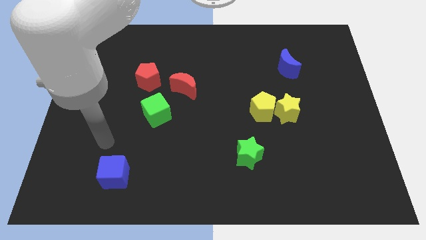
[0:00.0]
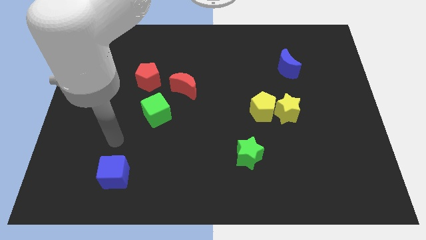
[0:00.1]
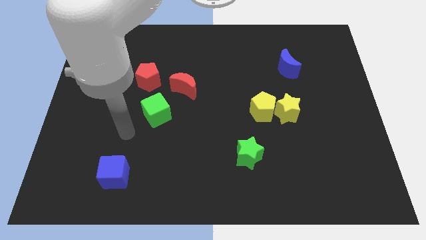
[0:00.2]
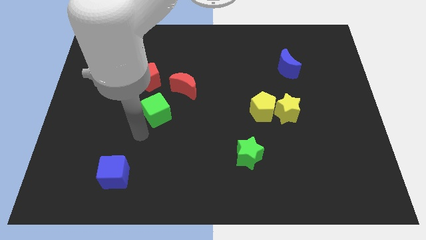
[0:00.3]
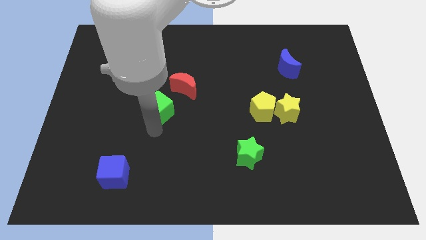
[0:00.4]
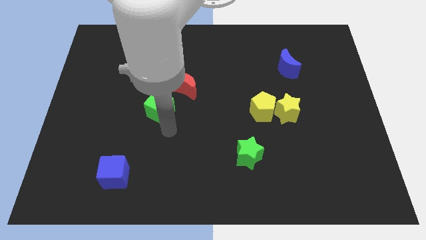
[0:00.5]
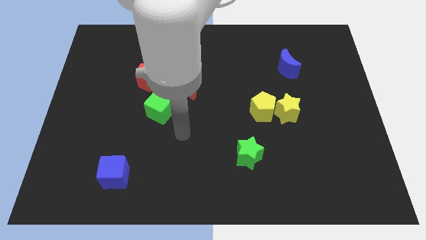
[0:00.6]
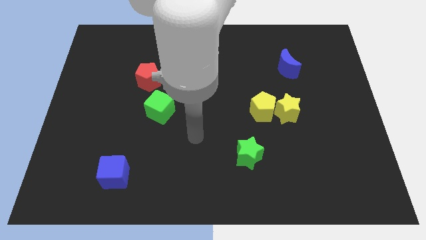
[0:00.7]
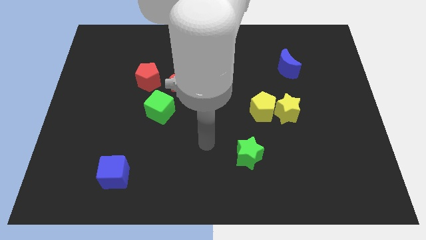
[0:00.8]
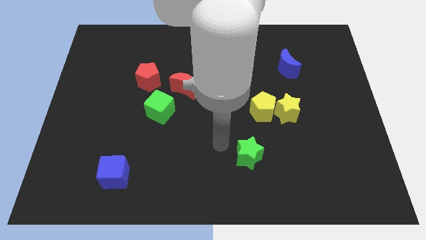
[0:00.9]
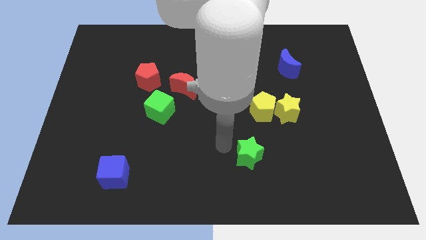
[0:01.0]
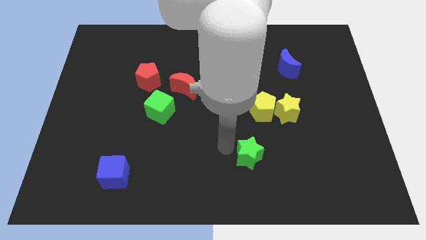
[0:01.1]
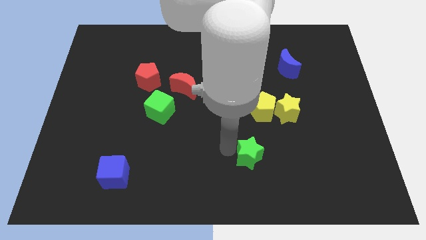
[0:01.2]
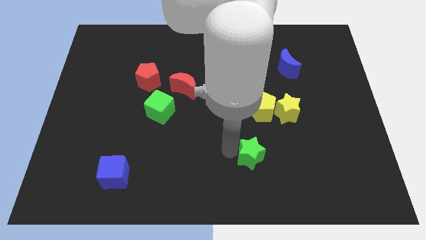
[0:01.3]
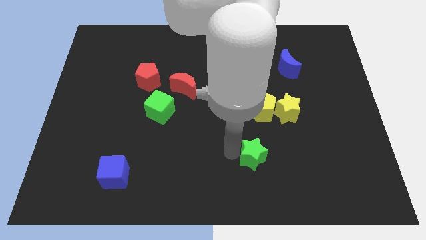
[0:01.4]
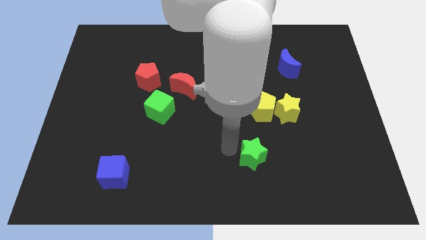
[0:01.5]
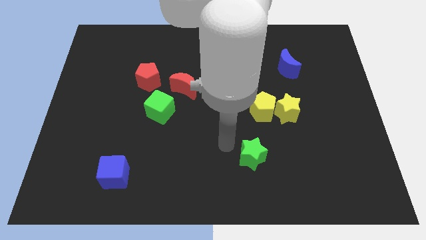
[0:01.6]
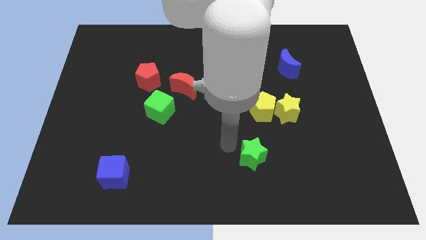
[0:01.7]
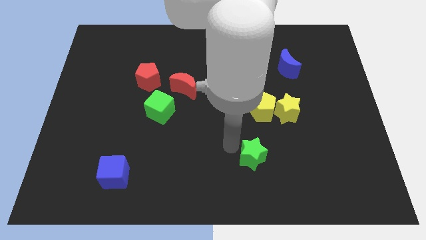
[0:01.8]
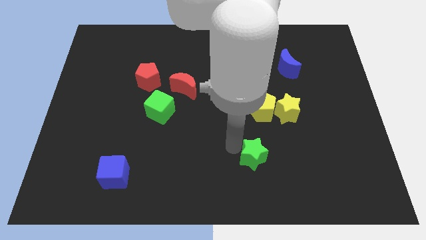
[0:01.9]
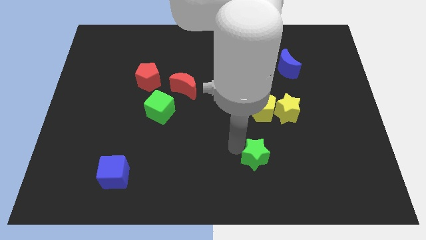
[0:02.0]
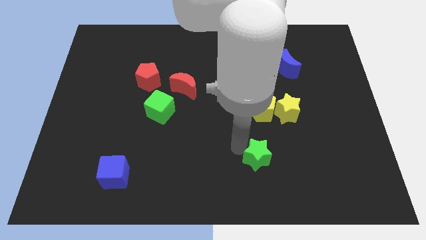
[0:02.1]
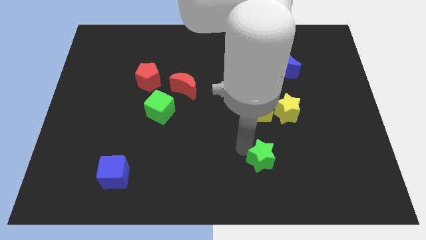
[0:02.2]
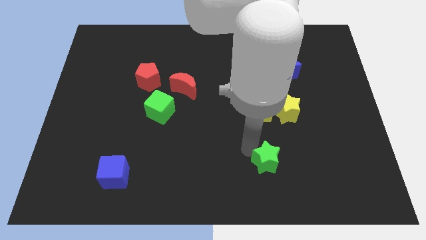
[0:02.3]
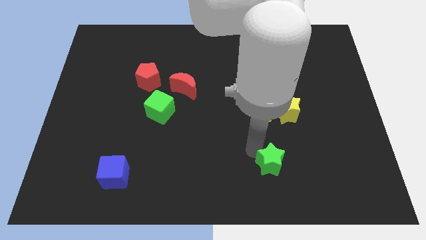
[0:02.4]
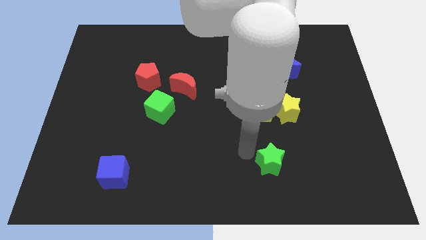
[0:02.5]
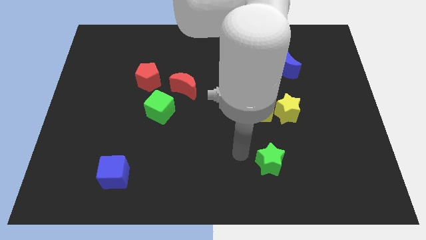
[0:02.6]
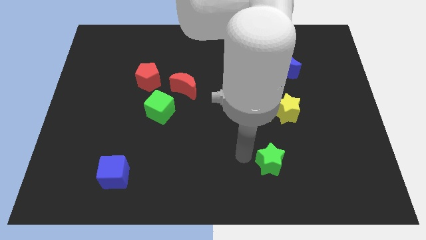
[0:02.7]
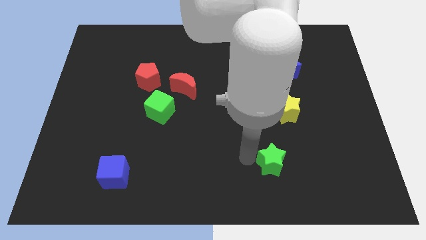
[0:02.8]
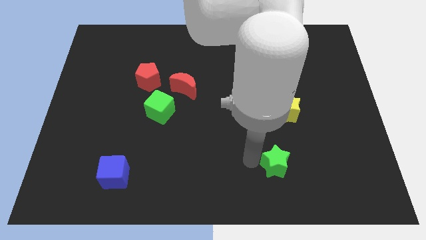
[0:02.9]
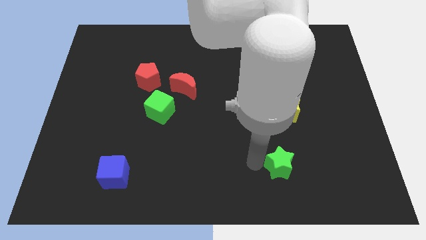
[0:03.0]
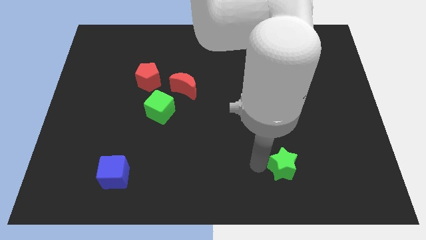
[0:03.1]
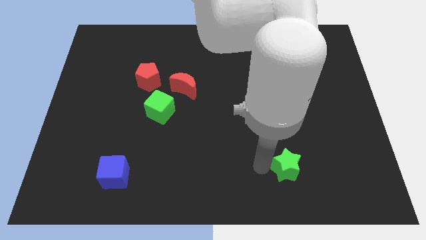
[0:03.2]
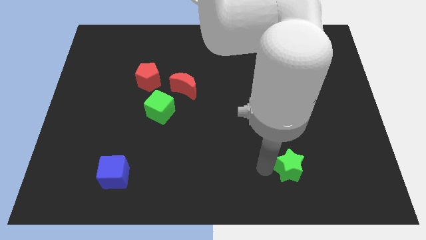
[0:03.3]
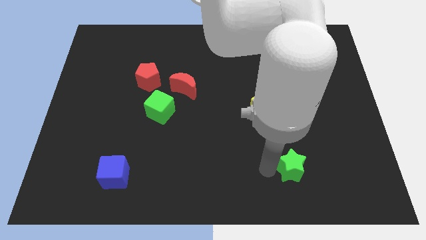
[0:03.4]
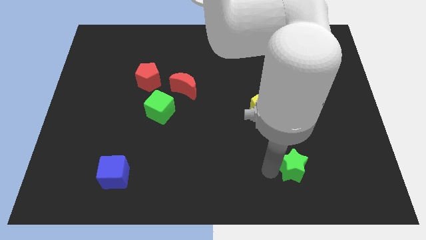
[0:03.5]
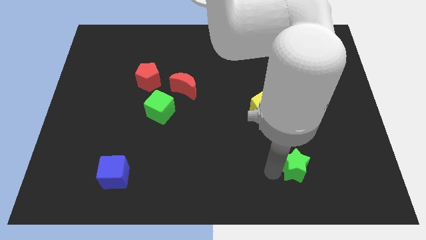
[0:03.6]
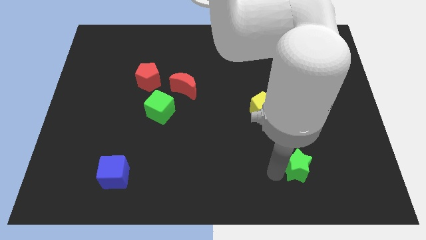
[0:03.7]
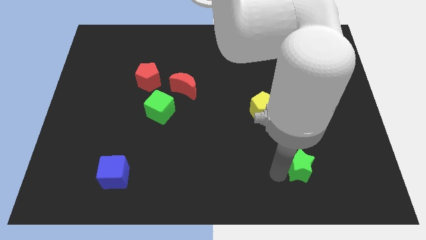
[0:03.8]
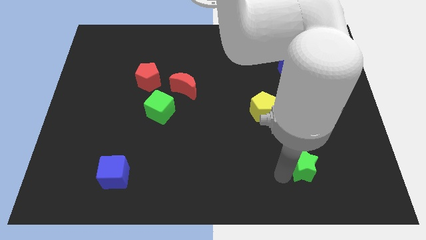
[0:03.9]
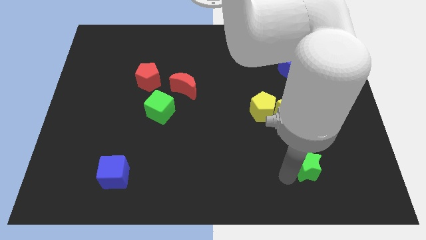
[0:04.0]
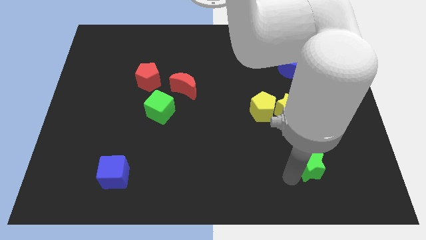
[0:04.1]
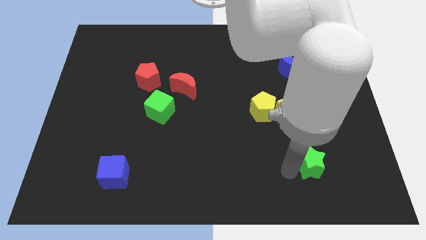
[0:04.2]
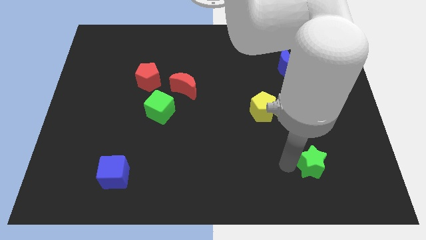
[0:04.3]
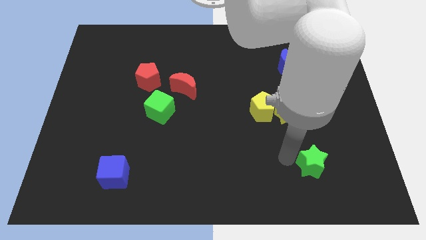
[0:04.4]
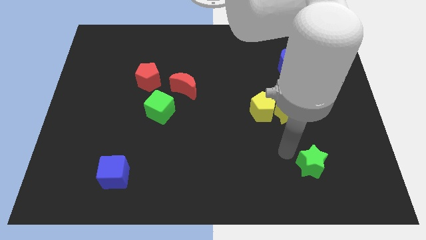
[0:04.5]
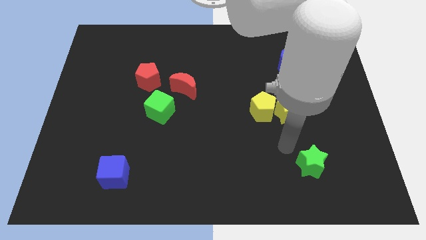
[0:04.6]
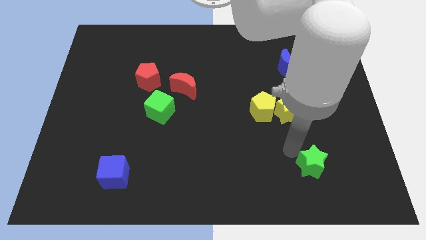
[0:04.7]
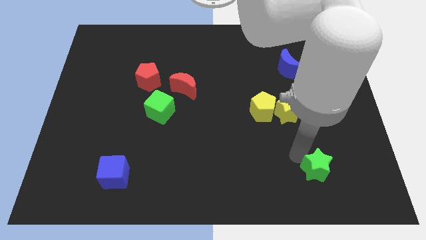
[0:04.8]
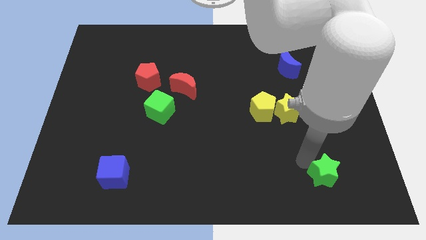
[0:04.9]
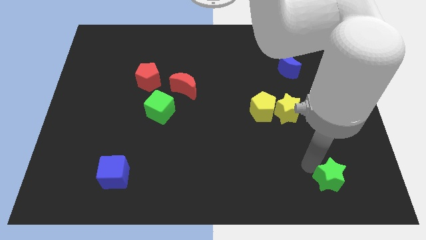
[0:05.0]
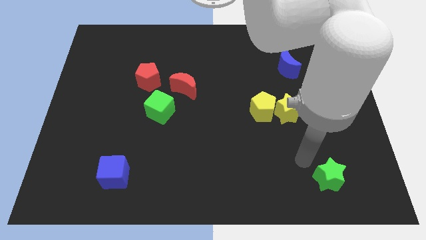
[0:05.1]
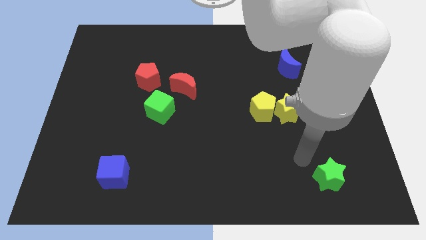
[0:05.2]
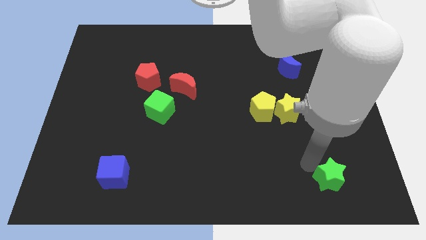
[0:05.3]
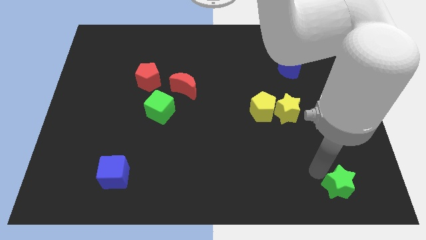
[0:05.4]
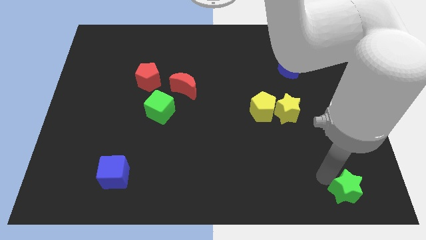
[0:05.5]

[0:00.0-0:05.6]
move the green star to the bottom right of the board
